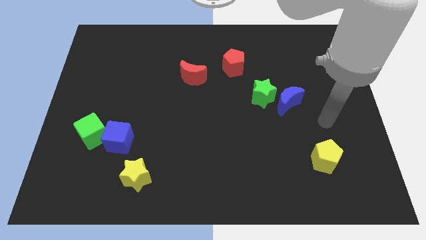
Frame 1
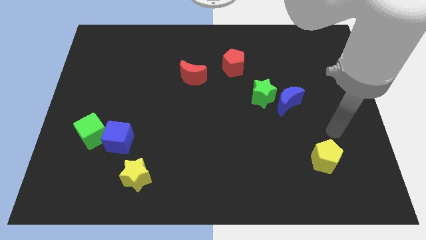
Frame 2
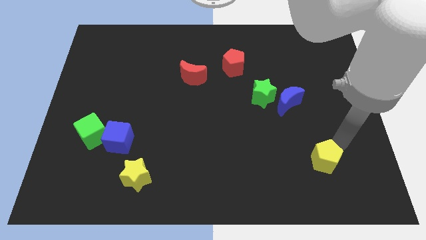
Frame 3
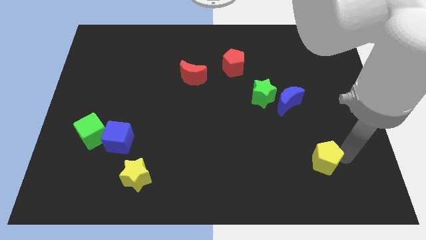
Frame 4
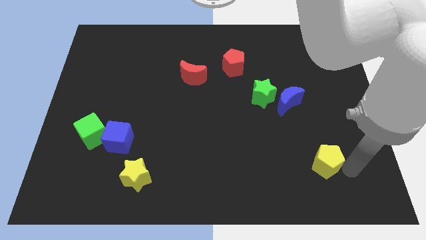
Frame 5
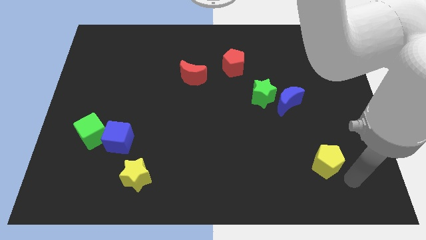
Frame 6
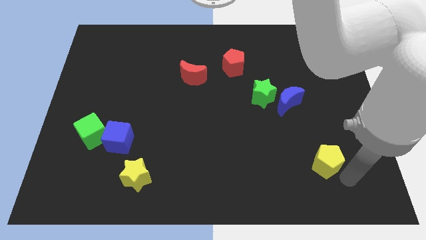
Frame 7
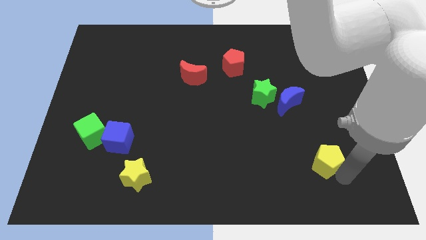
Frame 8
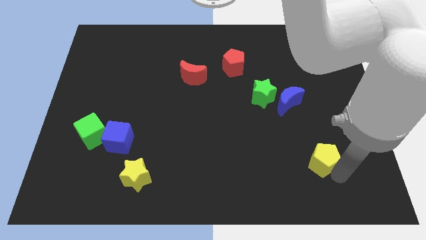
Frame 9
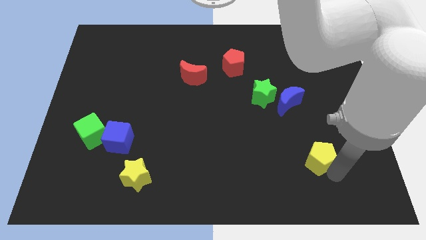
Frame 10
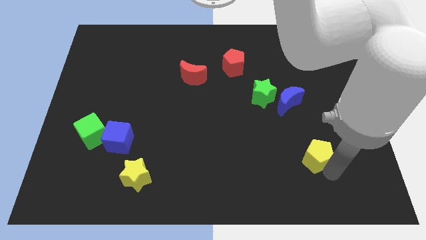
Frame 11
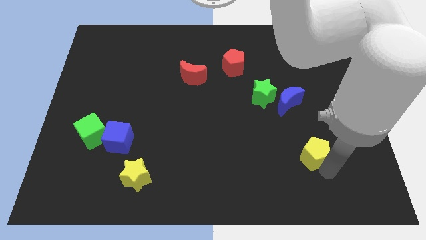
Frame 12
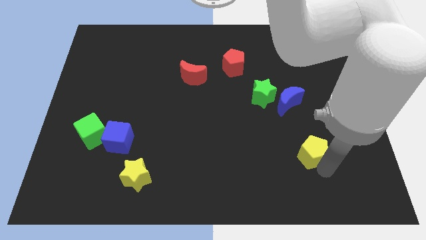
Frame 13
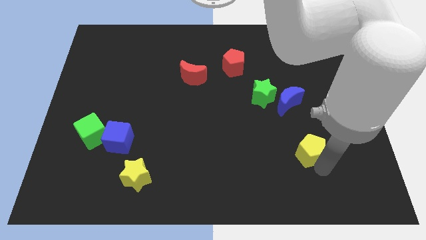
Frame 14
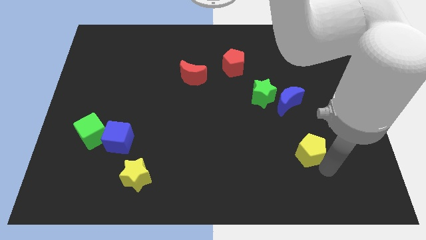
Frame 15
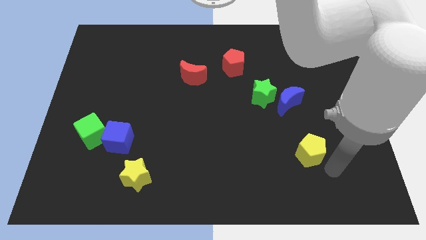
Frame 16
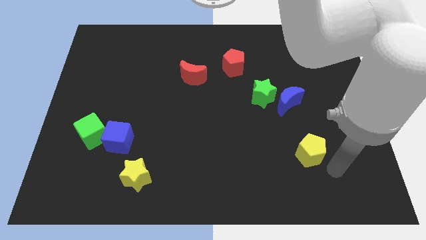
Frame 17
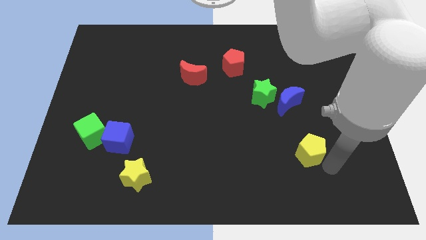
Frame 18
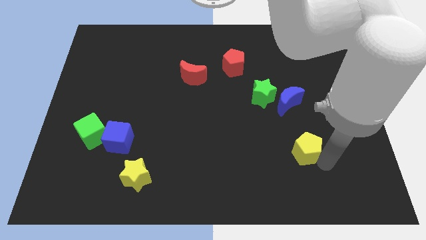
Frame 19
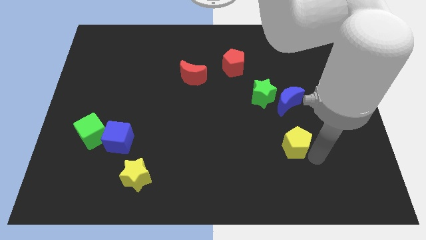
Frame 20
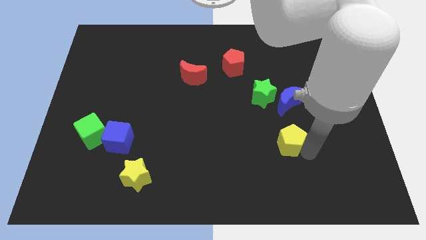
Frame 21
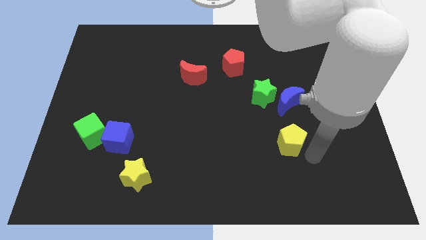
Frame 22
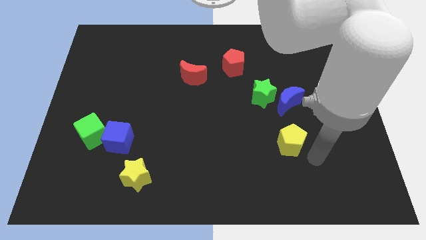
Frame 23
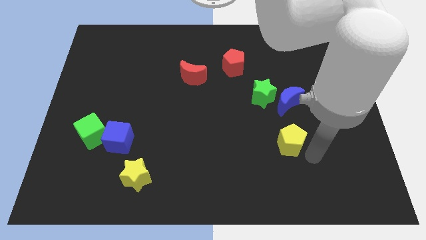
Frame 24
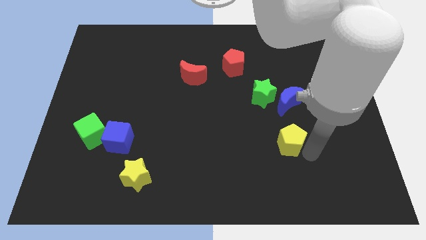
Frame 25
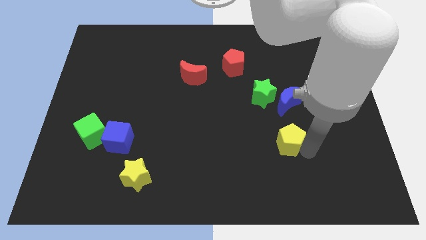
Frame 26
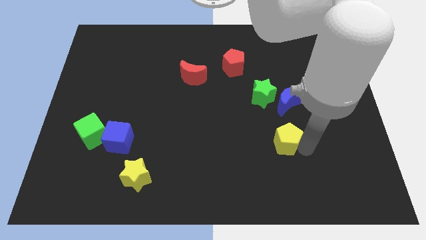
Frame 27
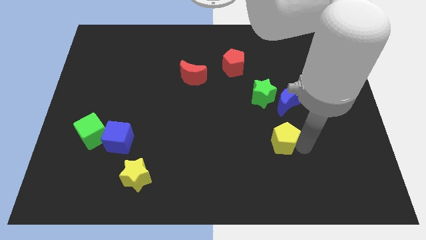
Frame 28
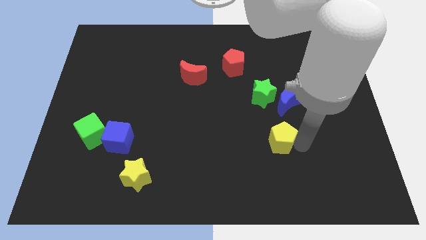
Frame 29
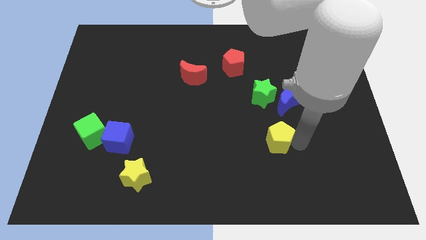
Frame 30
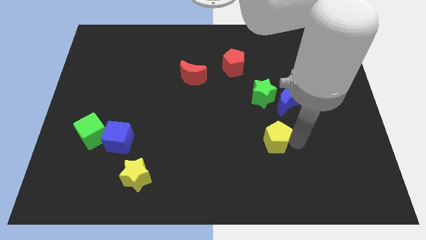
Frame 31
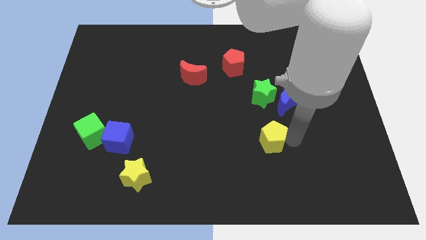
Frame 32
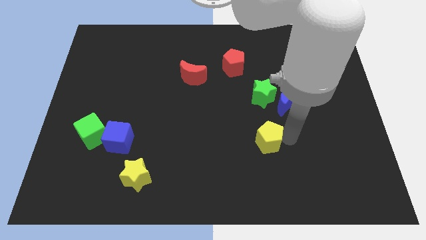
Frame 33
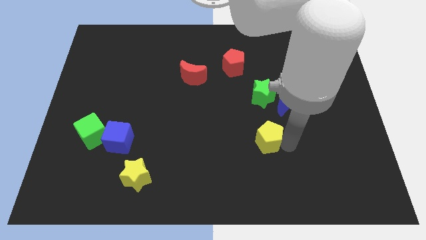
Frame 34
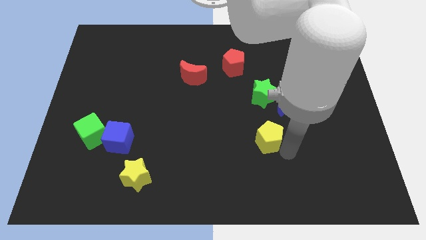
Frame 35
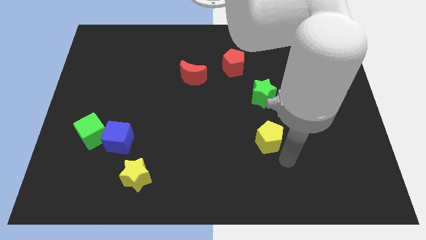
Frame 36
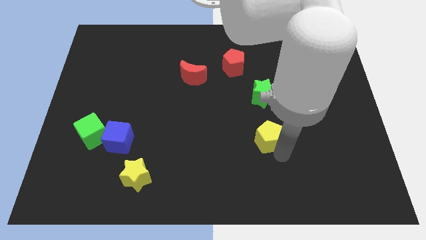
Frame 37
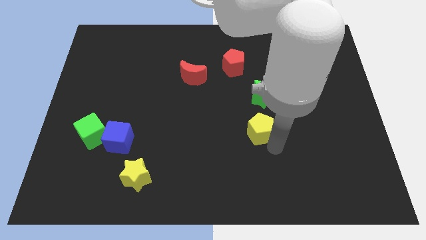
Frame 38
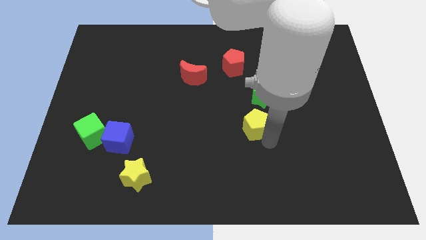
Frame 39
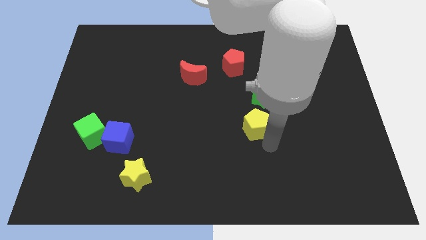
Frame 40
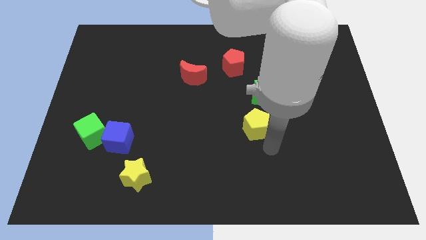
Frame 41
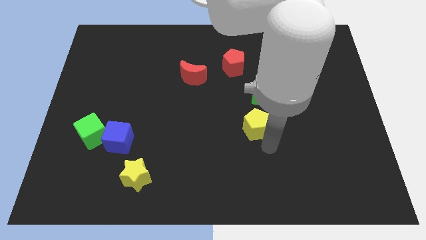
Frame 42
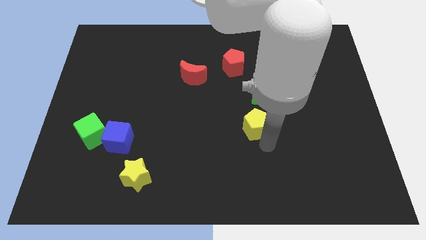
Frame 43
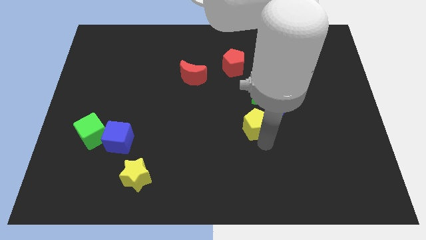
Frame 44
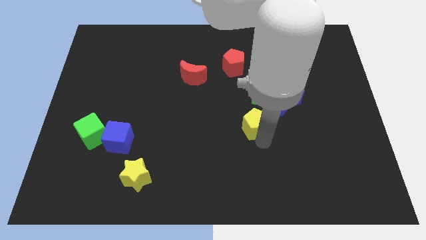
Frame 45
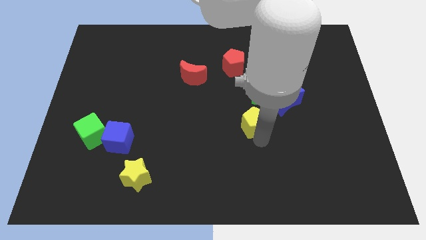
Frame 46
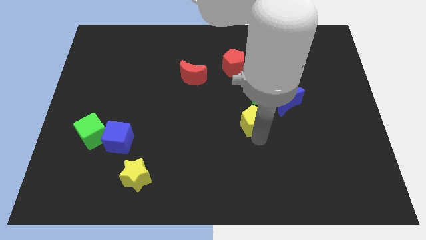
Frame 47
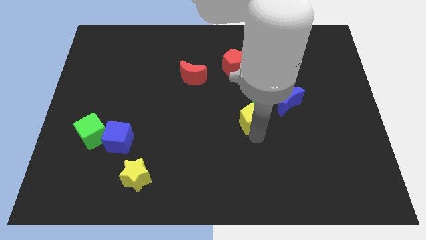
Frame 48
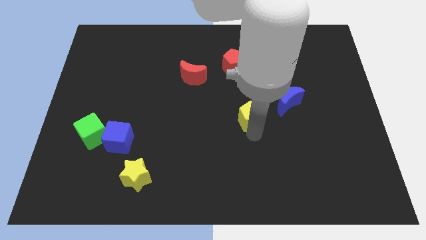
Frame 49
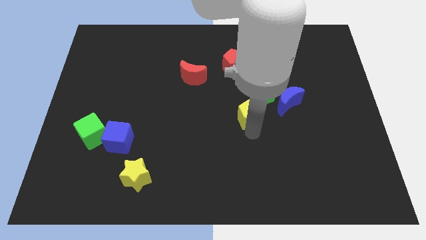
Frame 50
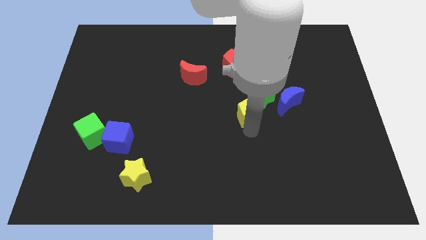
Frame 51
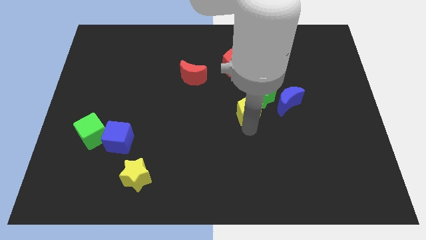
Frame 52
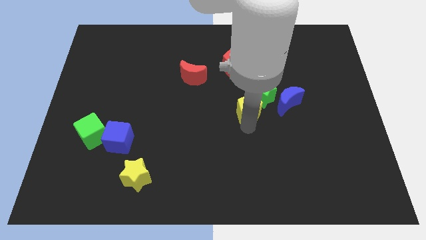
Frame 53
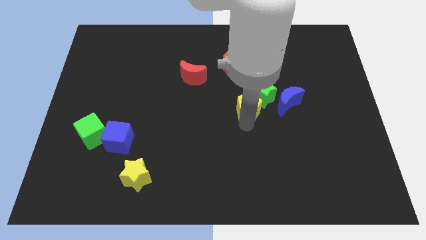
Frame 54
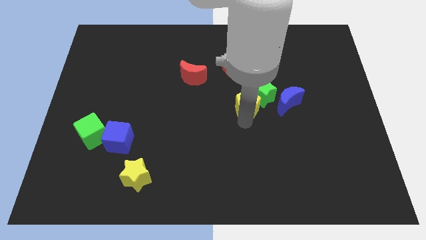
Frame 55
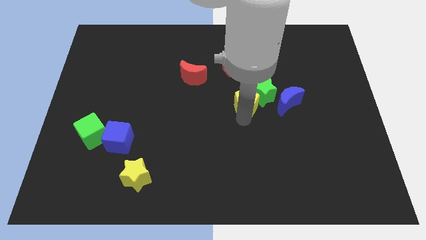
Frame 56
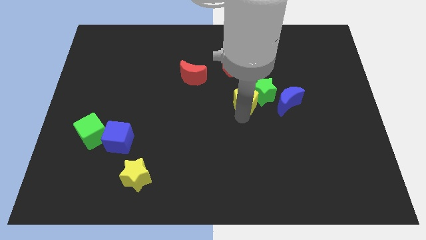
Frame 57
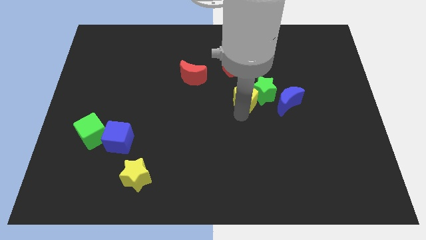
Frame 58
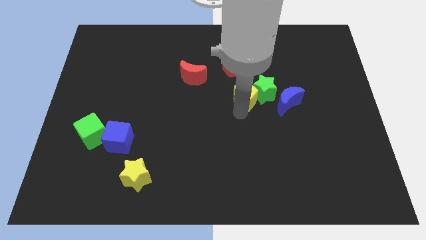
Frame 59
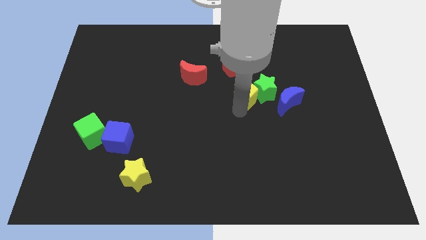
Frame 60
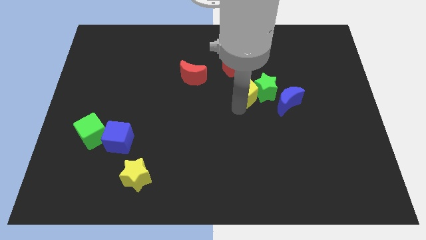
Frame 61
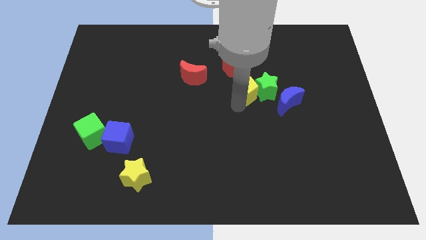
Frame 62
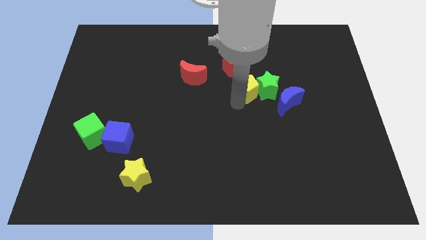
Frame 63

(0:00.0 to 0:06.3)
move the yellow pentagon just right of the red moon

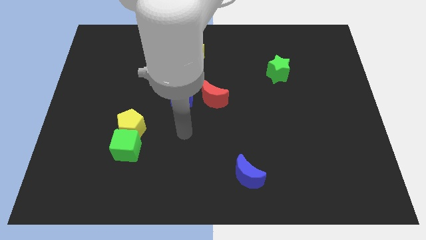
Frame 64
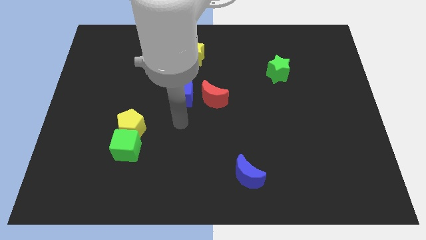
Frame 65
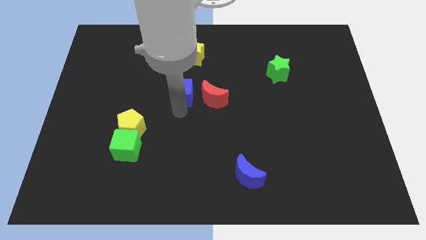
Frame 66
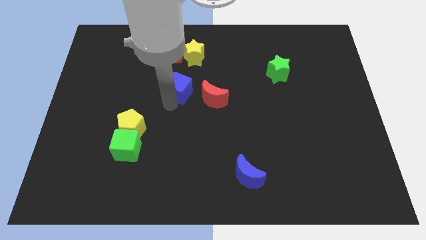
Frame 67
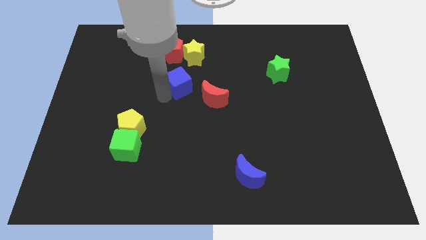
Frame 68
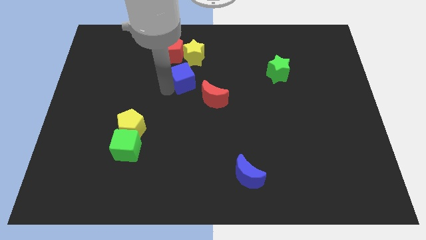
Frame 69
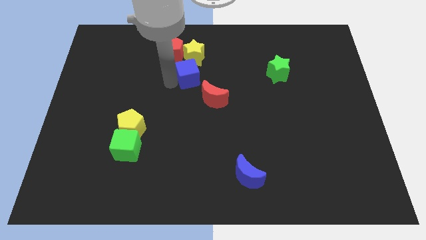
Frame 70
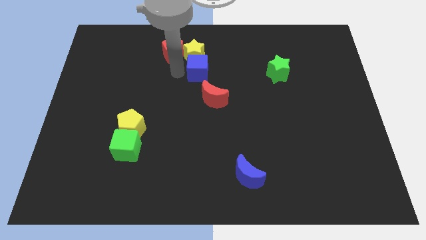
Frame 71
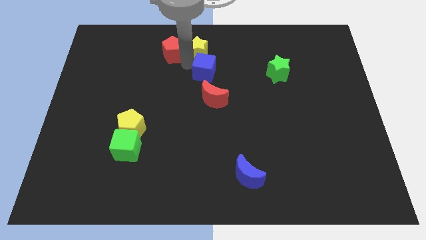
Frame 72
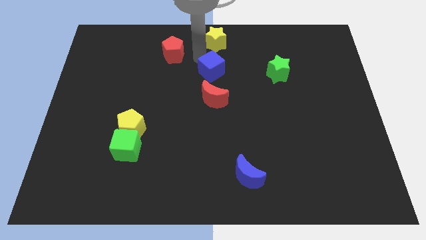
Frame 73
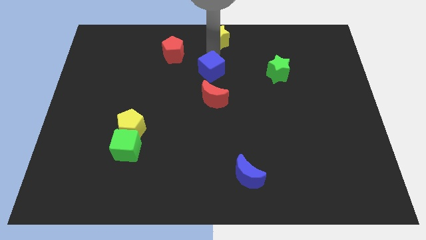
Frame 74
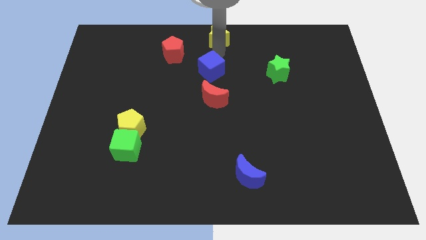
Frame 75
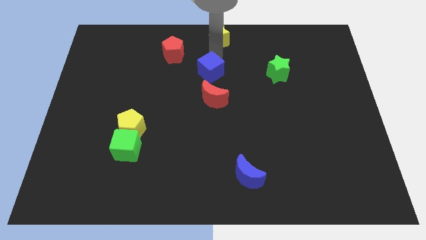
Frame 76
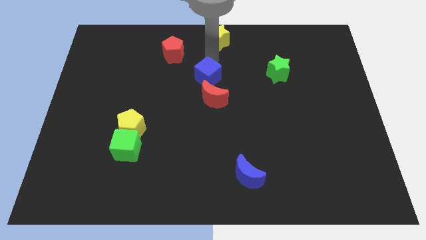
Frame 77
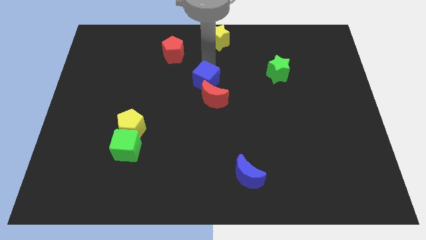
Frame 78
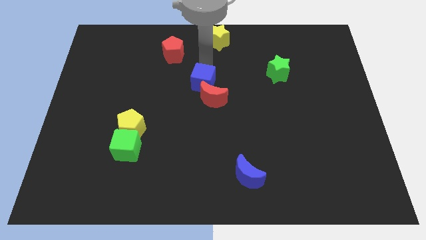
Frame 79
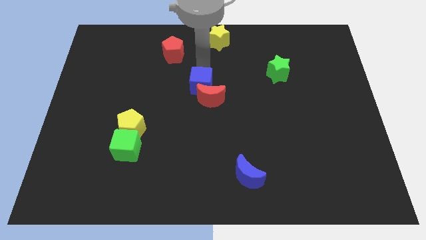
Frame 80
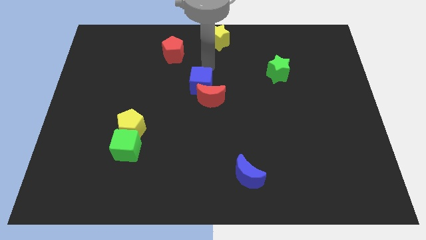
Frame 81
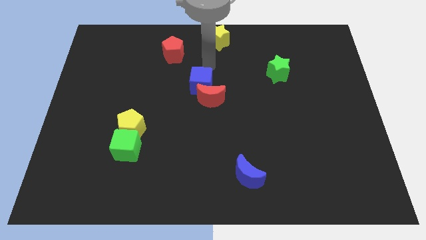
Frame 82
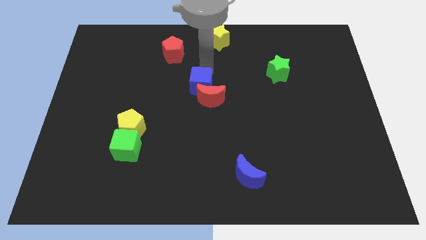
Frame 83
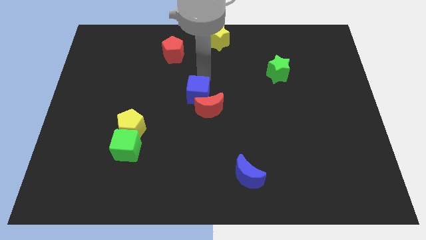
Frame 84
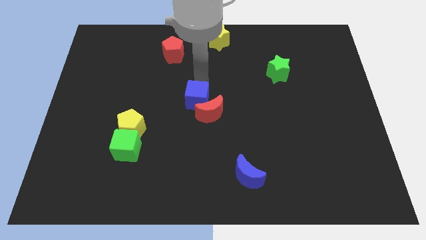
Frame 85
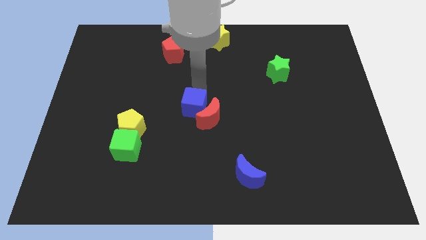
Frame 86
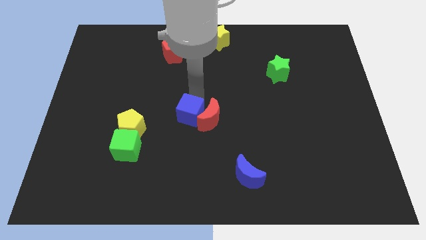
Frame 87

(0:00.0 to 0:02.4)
put the blue cube to the bottom left of the red moon
